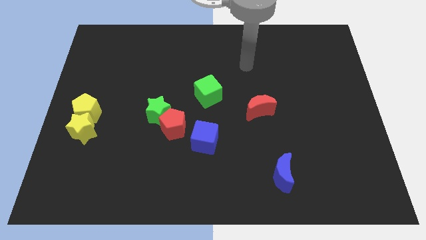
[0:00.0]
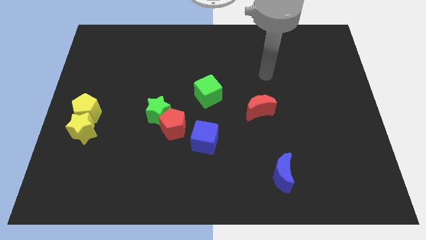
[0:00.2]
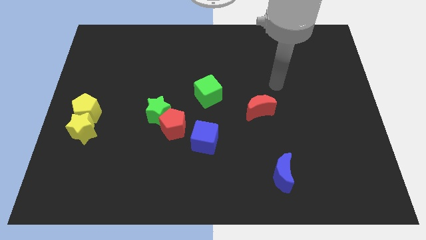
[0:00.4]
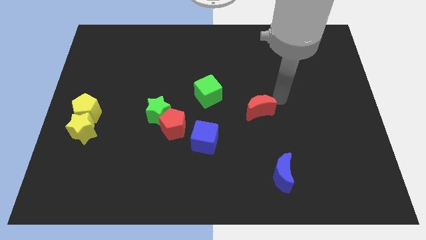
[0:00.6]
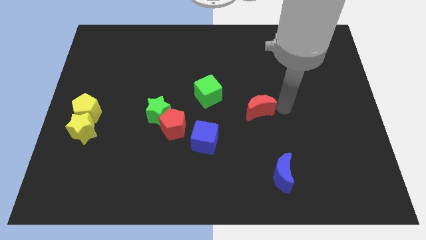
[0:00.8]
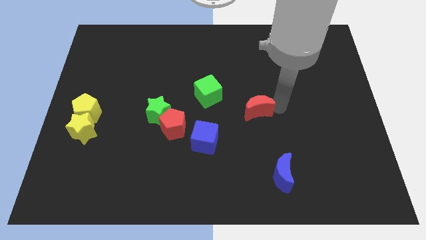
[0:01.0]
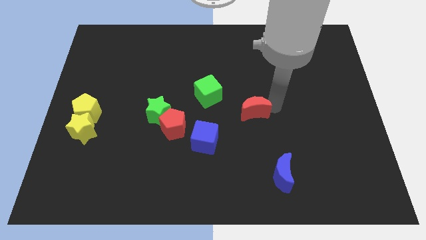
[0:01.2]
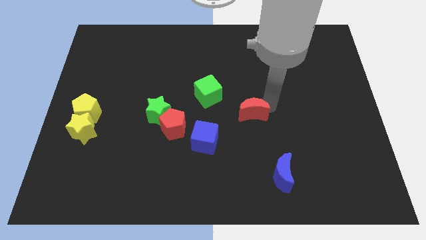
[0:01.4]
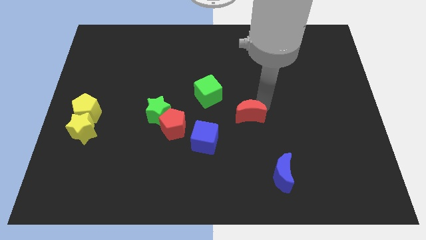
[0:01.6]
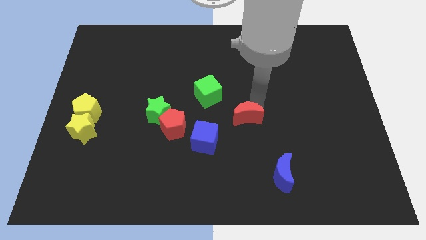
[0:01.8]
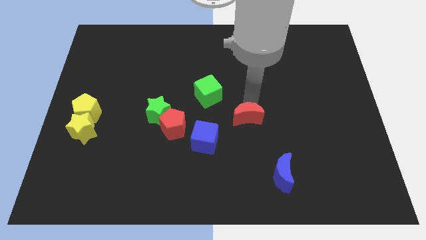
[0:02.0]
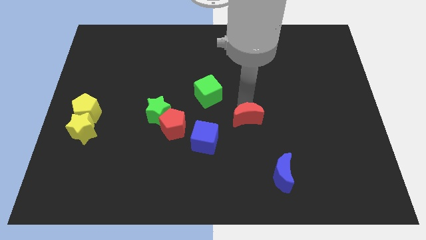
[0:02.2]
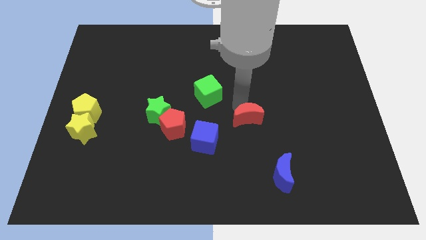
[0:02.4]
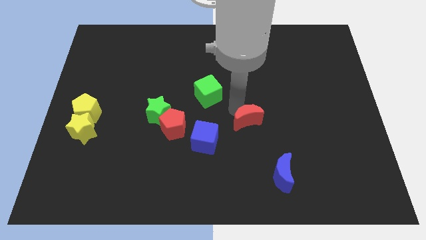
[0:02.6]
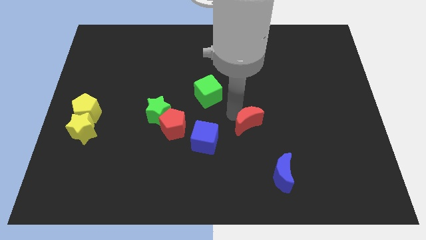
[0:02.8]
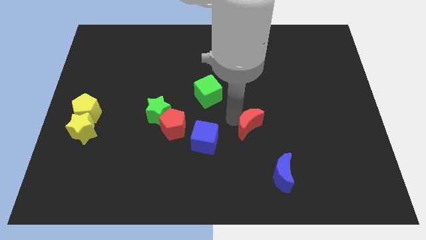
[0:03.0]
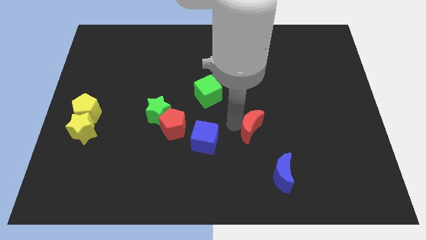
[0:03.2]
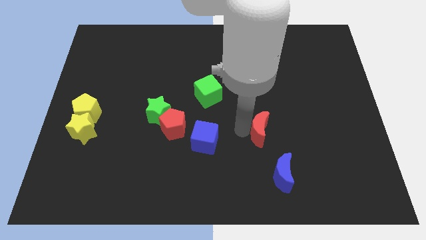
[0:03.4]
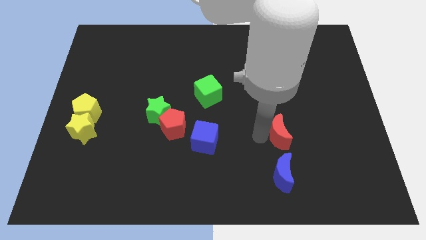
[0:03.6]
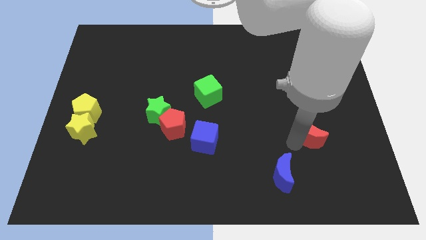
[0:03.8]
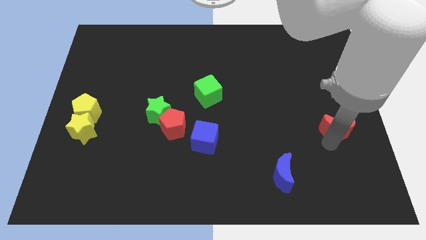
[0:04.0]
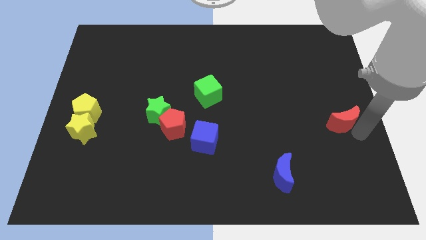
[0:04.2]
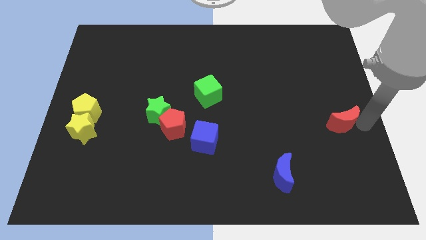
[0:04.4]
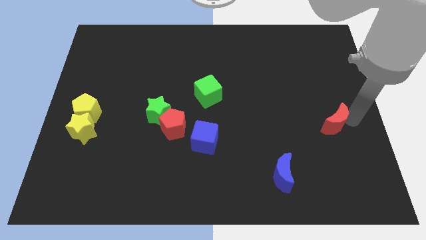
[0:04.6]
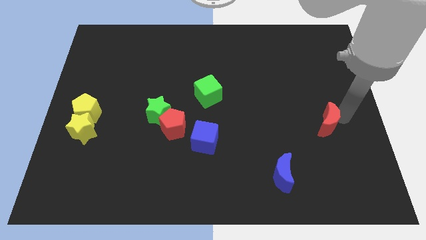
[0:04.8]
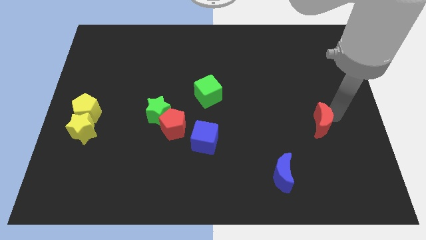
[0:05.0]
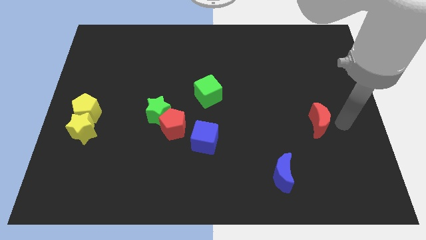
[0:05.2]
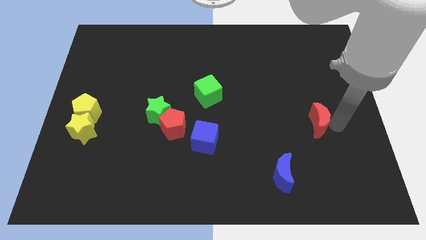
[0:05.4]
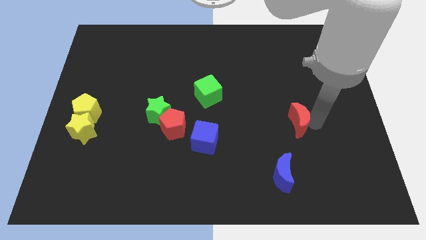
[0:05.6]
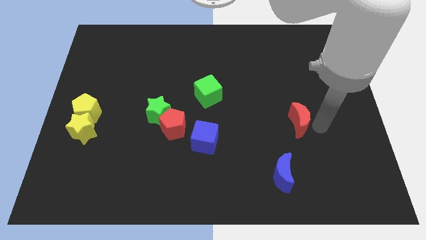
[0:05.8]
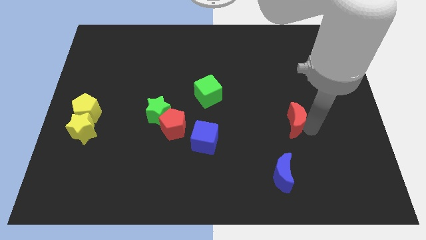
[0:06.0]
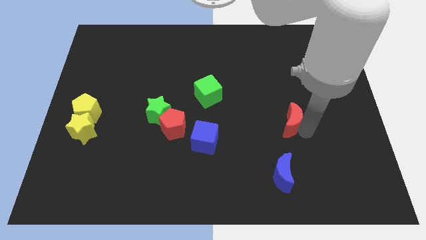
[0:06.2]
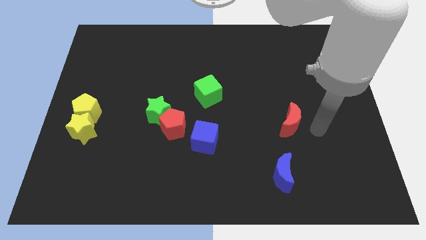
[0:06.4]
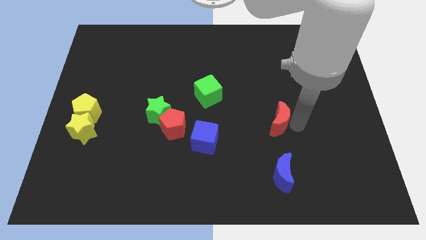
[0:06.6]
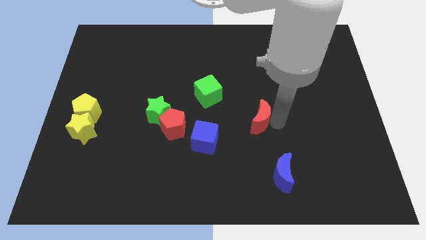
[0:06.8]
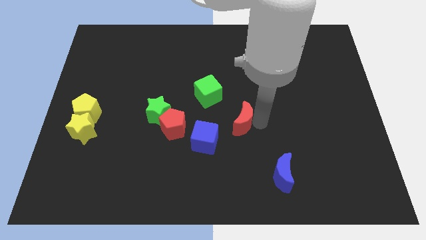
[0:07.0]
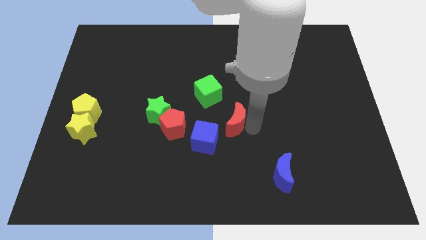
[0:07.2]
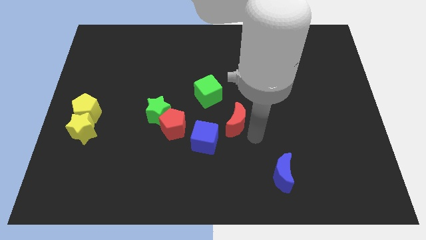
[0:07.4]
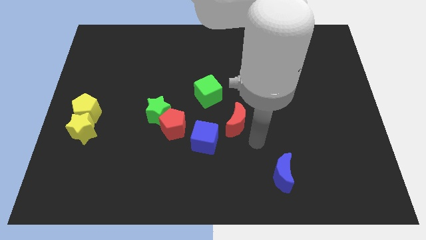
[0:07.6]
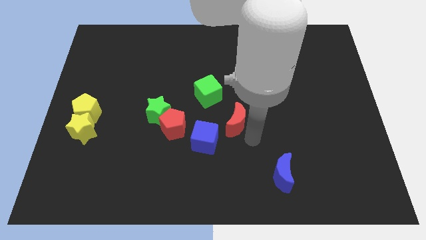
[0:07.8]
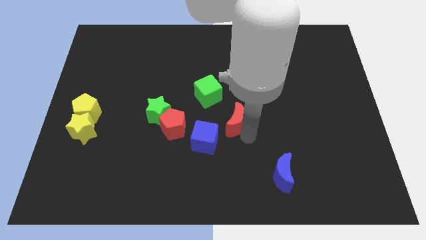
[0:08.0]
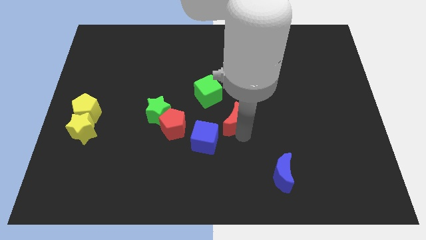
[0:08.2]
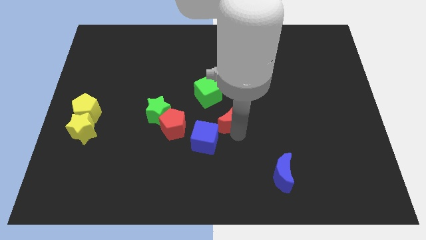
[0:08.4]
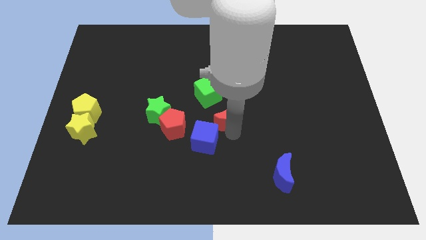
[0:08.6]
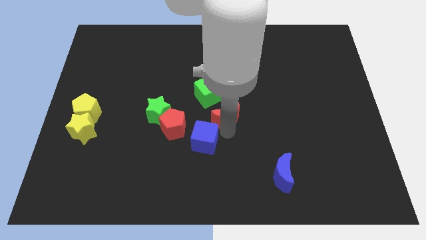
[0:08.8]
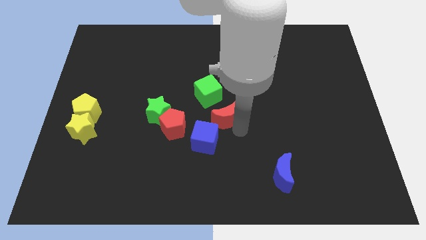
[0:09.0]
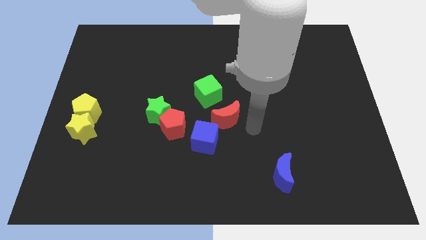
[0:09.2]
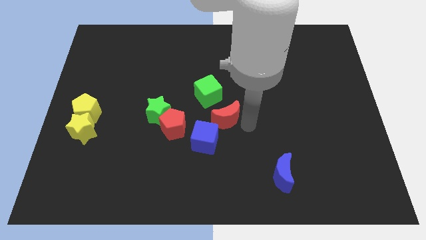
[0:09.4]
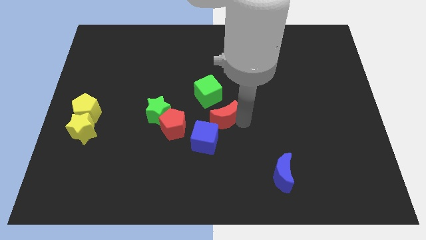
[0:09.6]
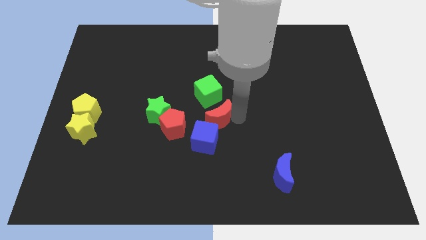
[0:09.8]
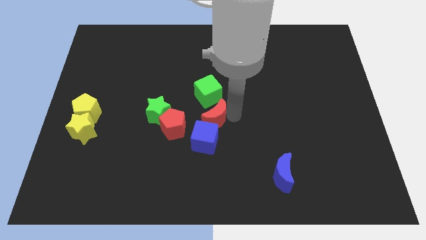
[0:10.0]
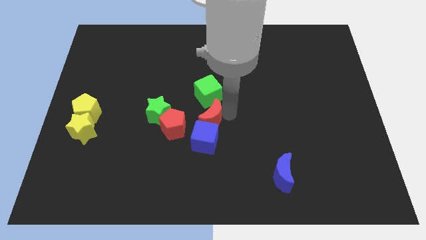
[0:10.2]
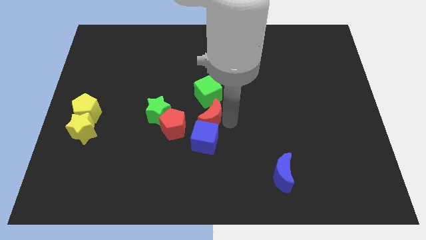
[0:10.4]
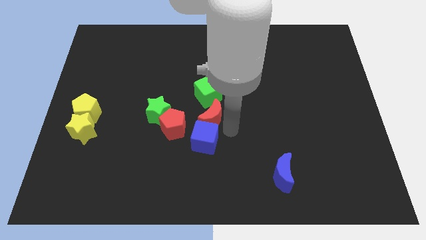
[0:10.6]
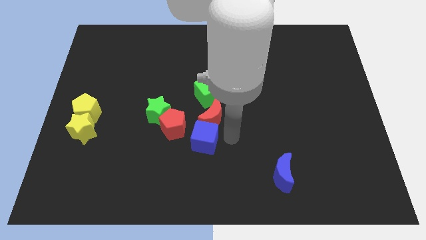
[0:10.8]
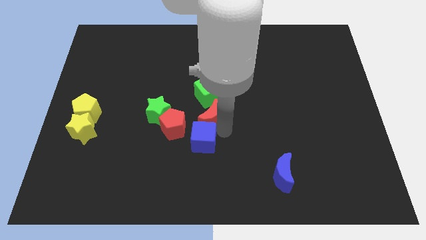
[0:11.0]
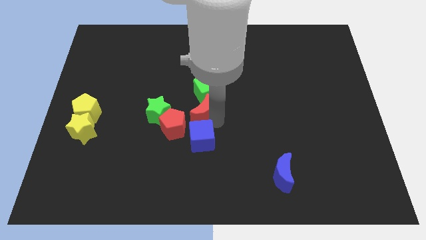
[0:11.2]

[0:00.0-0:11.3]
move the red moon to the bottom left of the green cube

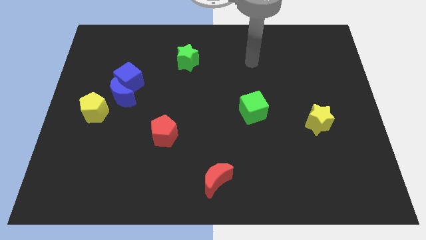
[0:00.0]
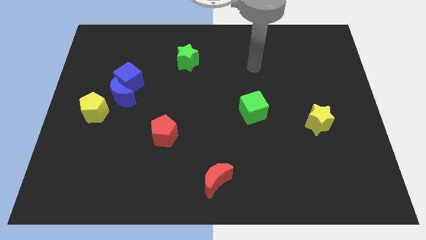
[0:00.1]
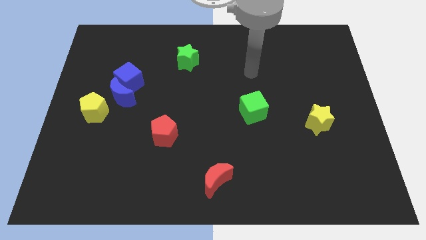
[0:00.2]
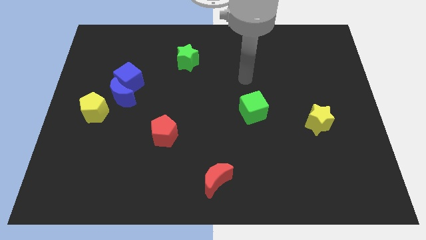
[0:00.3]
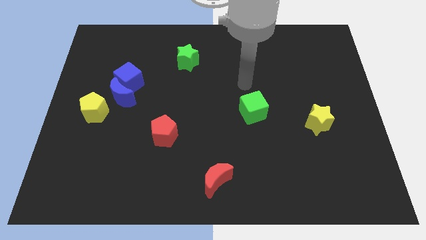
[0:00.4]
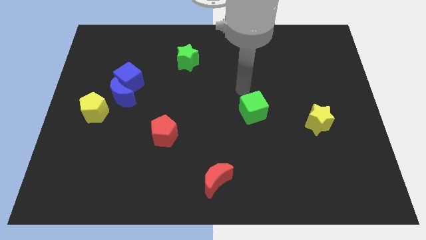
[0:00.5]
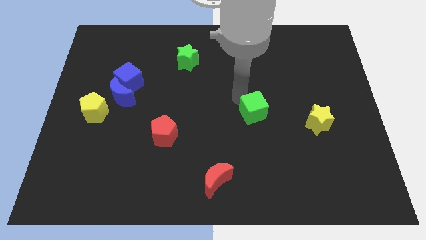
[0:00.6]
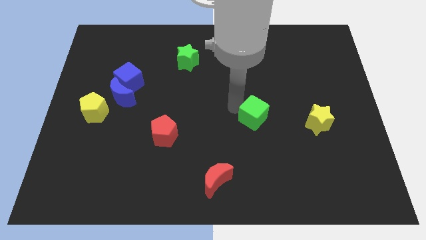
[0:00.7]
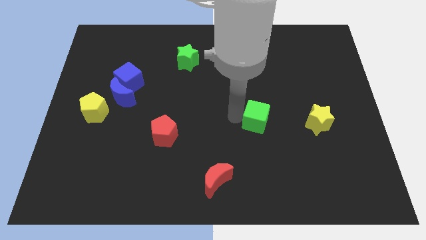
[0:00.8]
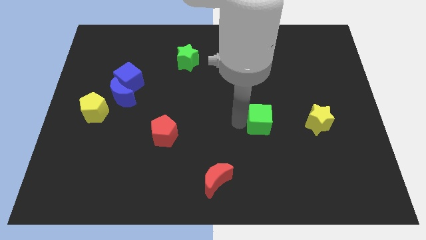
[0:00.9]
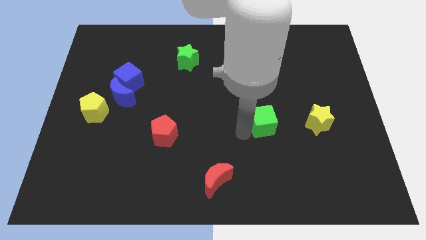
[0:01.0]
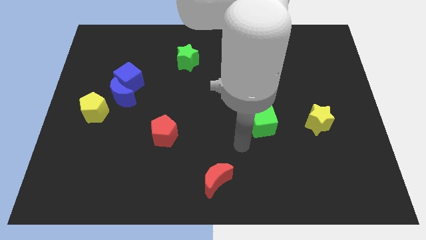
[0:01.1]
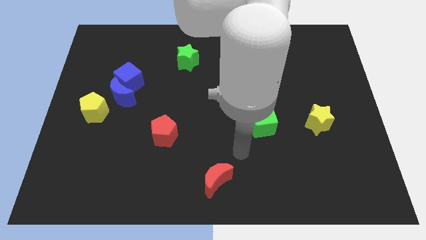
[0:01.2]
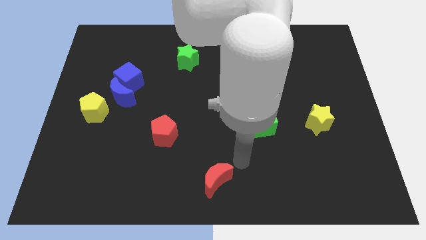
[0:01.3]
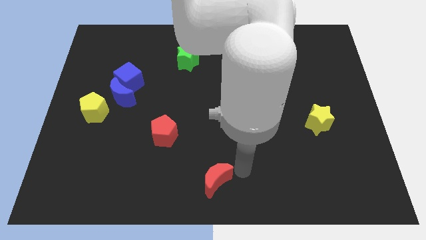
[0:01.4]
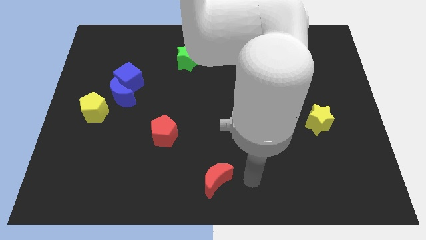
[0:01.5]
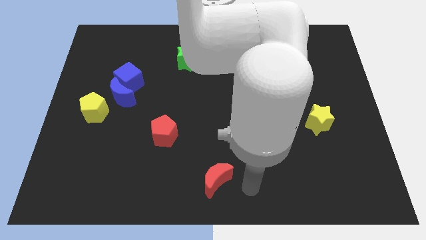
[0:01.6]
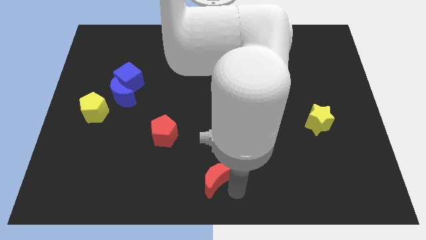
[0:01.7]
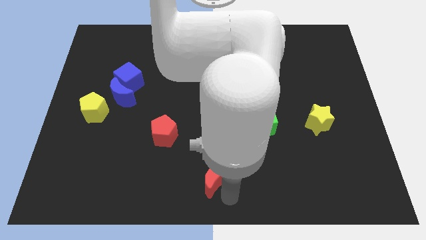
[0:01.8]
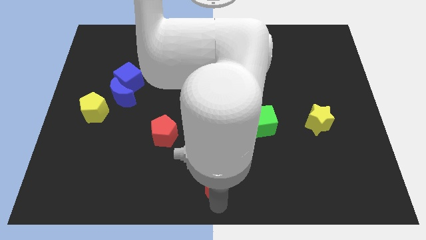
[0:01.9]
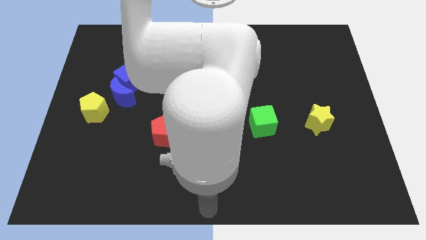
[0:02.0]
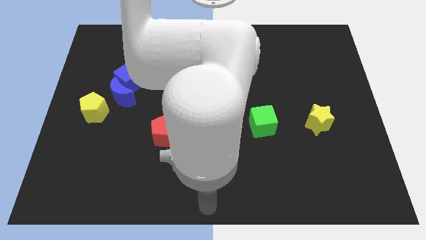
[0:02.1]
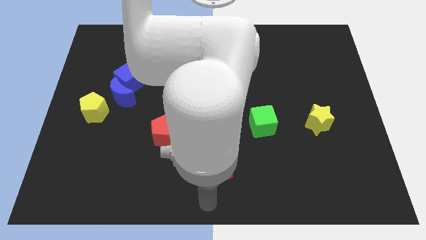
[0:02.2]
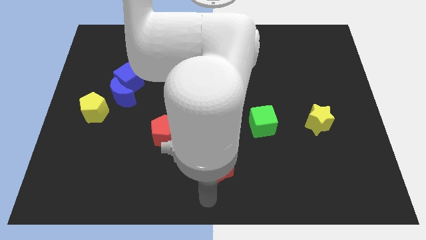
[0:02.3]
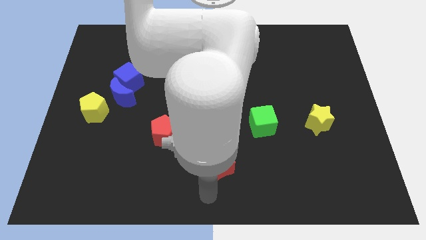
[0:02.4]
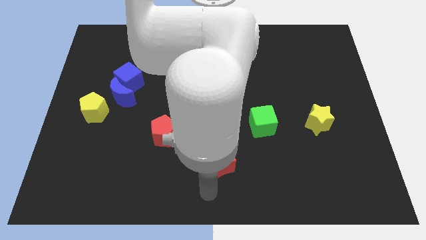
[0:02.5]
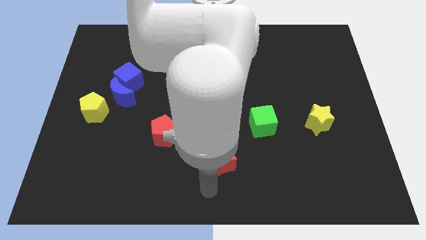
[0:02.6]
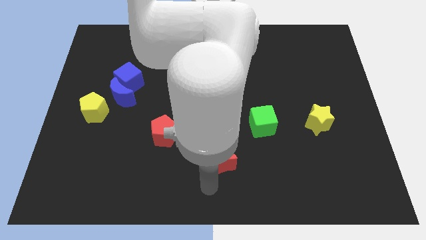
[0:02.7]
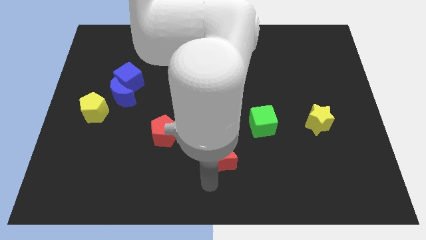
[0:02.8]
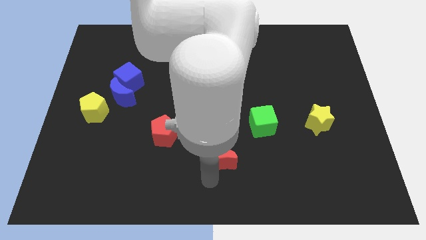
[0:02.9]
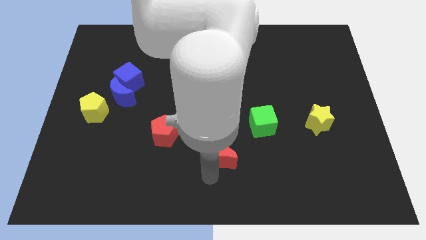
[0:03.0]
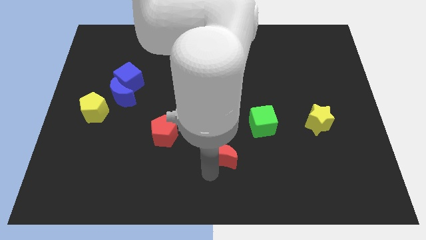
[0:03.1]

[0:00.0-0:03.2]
put the red moon to the bottom left side of the green cube
